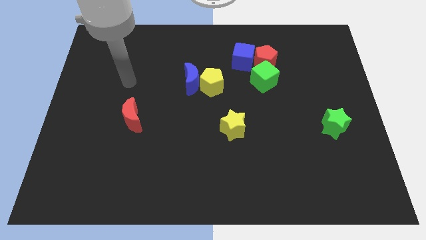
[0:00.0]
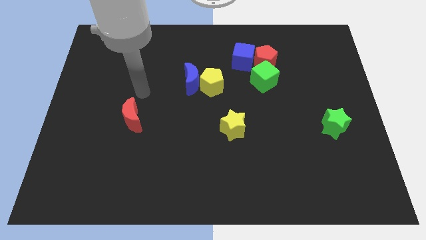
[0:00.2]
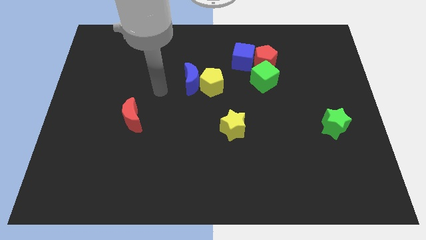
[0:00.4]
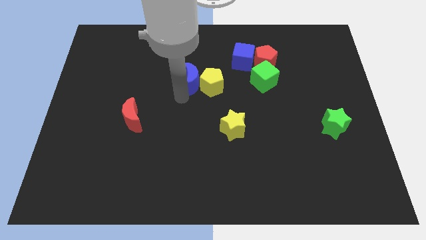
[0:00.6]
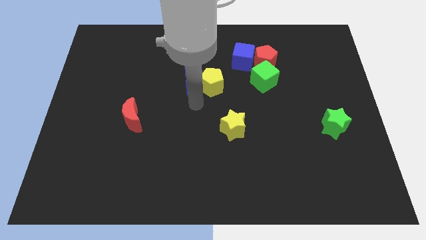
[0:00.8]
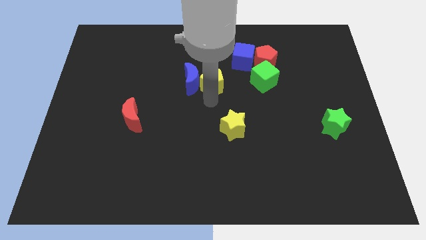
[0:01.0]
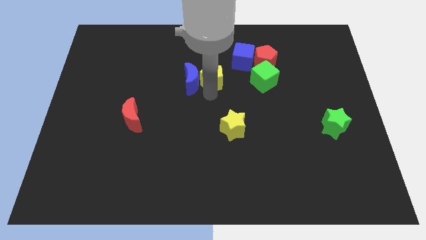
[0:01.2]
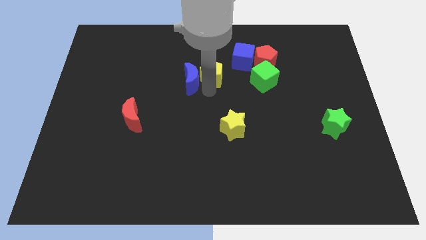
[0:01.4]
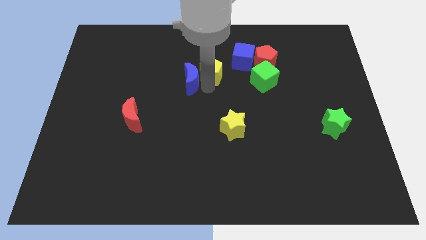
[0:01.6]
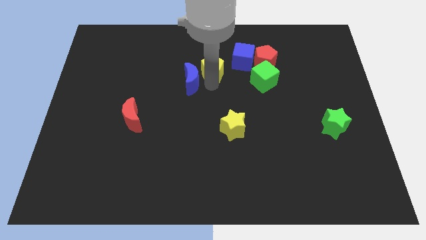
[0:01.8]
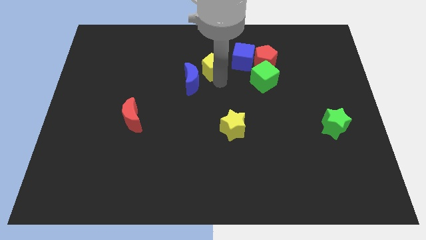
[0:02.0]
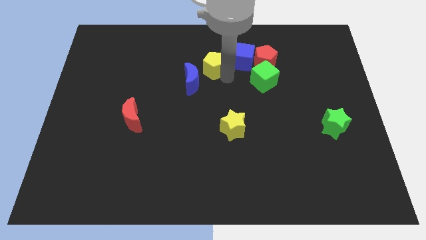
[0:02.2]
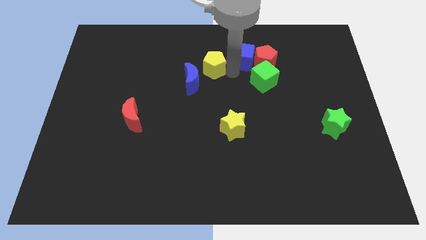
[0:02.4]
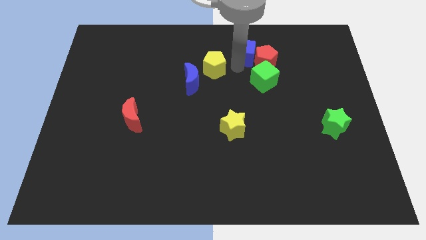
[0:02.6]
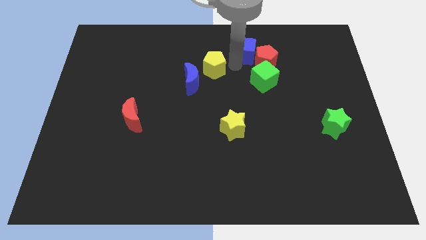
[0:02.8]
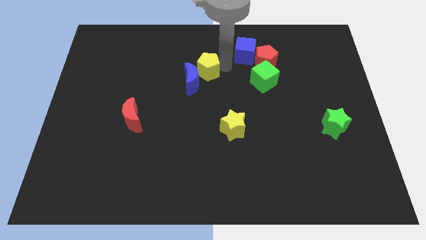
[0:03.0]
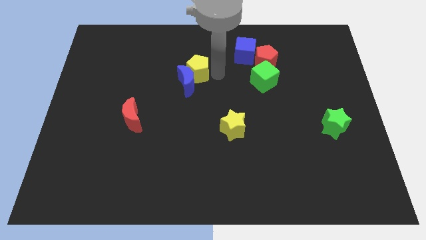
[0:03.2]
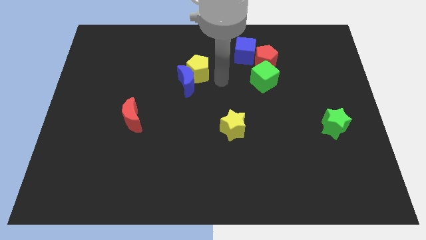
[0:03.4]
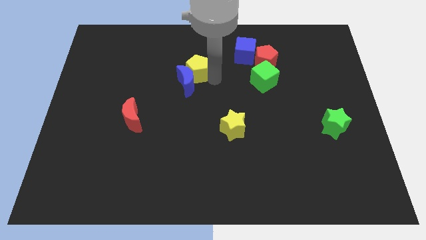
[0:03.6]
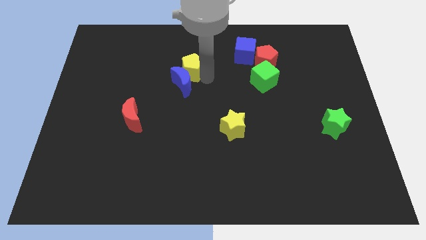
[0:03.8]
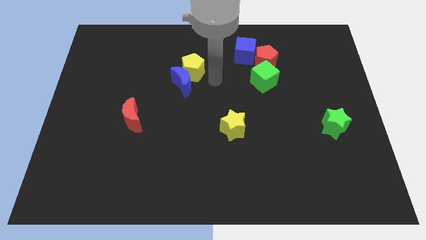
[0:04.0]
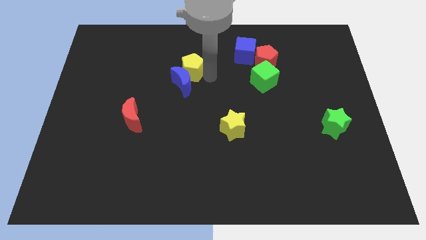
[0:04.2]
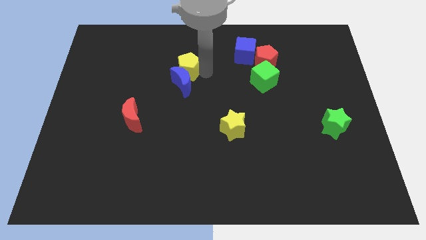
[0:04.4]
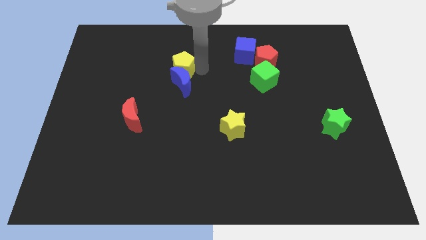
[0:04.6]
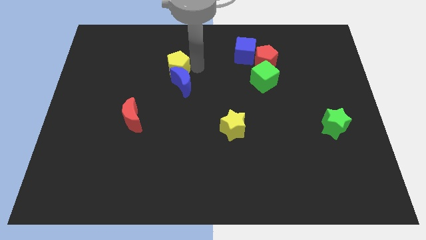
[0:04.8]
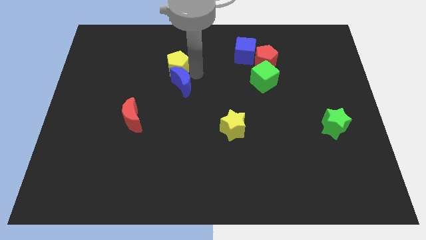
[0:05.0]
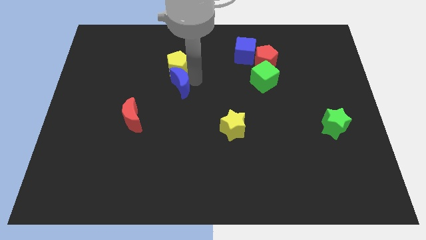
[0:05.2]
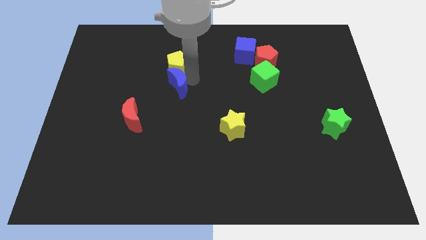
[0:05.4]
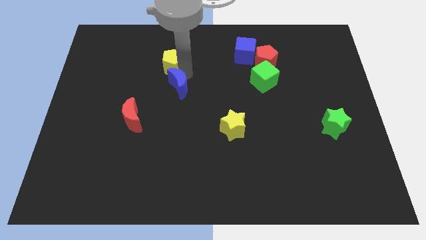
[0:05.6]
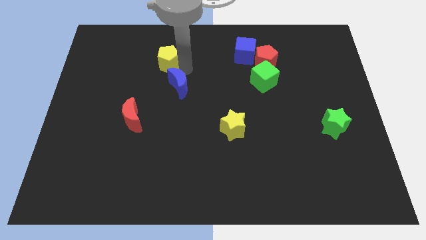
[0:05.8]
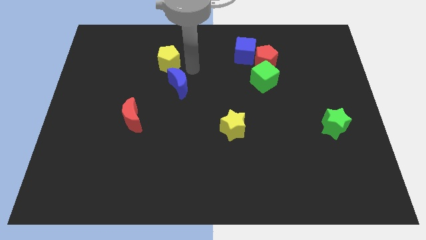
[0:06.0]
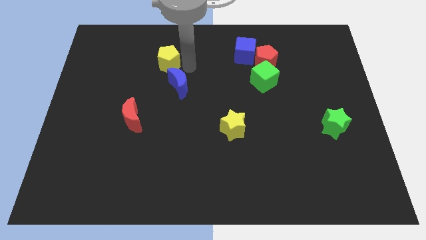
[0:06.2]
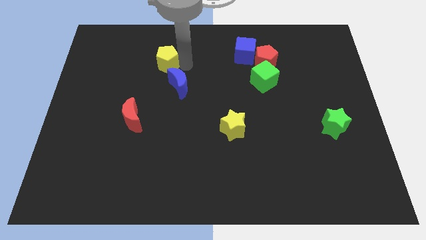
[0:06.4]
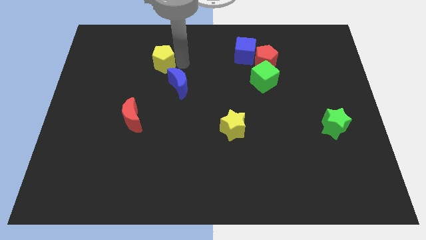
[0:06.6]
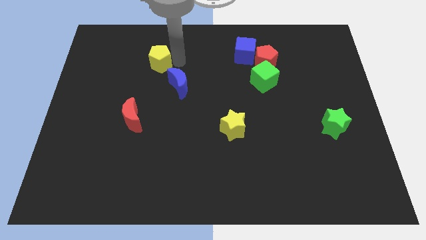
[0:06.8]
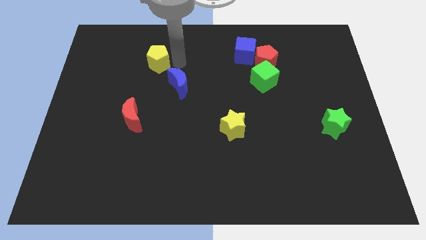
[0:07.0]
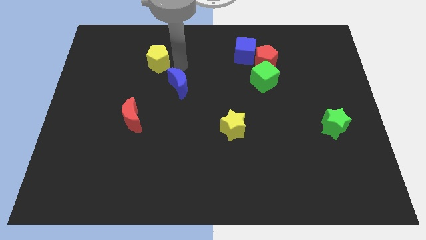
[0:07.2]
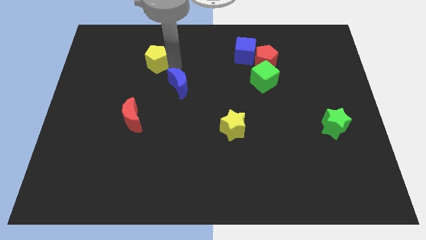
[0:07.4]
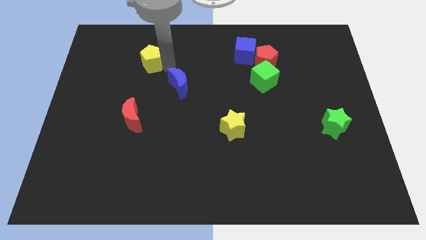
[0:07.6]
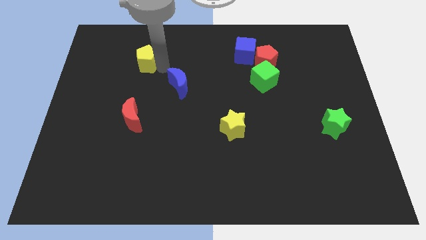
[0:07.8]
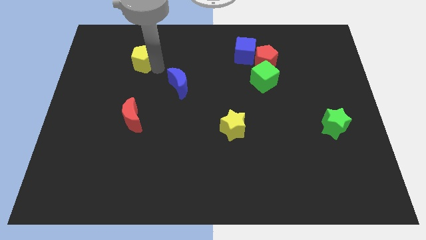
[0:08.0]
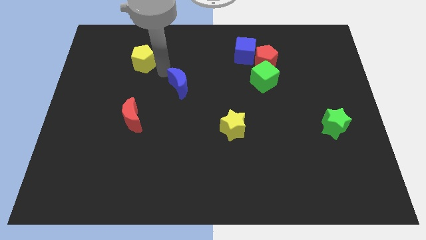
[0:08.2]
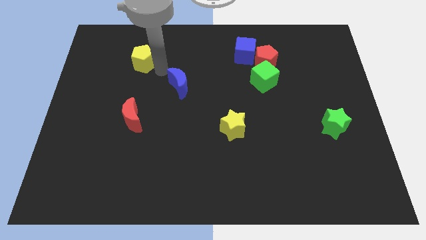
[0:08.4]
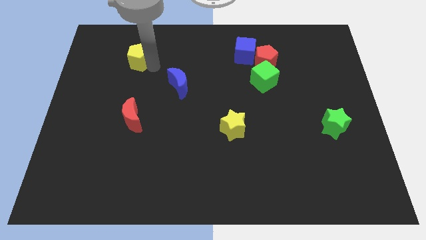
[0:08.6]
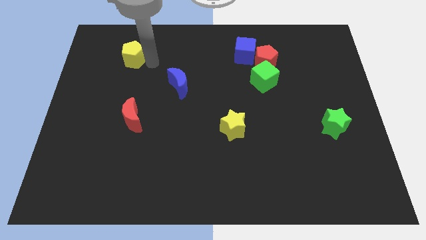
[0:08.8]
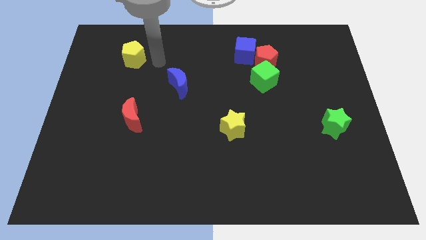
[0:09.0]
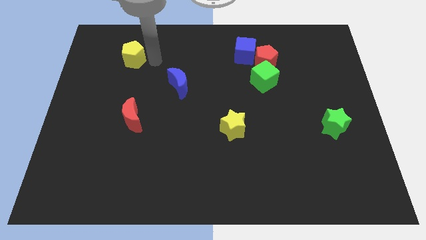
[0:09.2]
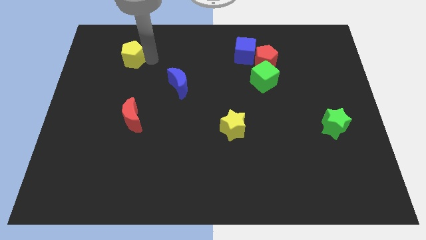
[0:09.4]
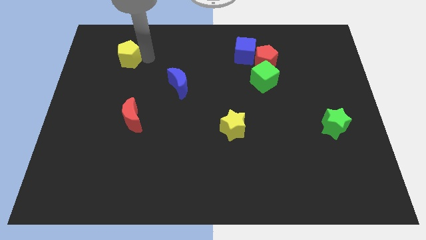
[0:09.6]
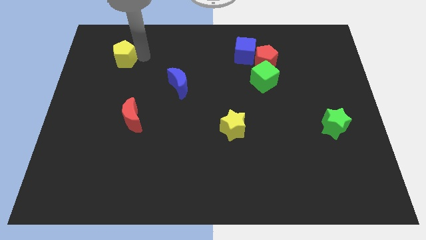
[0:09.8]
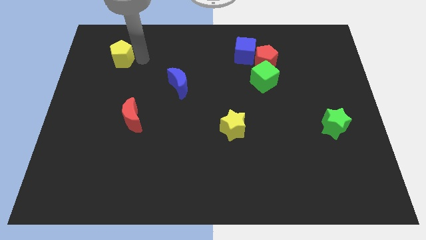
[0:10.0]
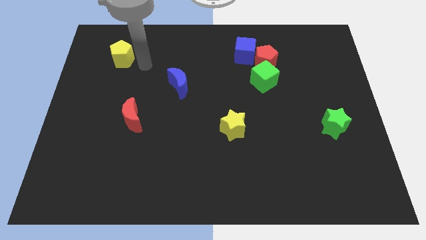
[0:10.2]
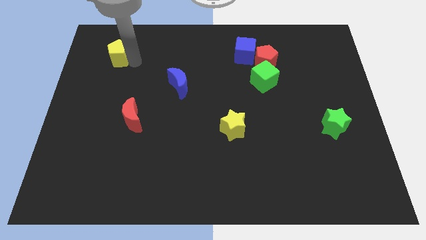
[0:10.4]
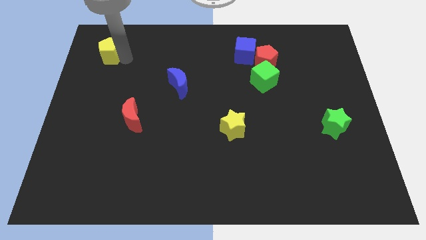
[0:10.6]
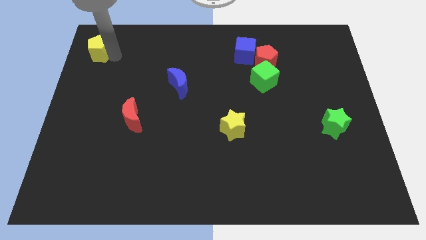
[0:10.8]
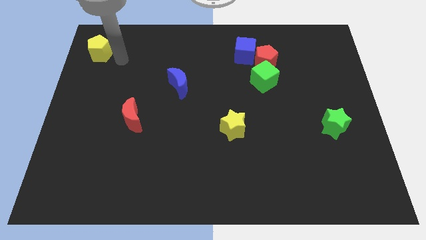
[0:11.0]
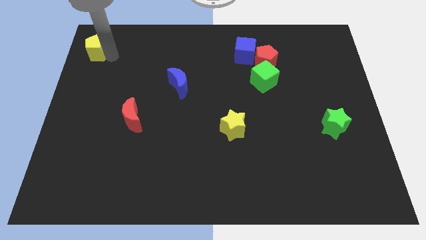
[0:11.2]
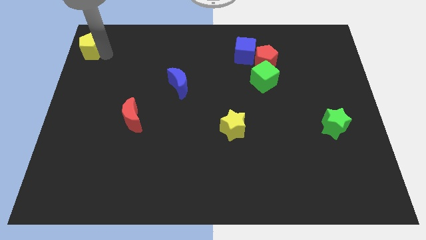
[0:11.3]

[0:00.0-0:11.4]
slide the yellow pentagon to the top left
